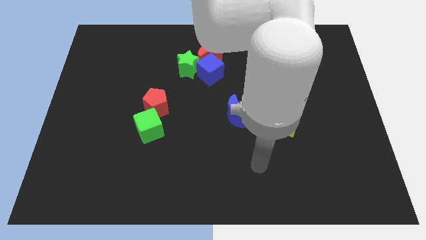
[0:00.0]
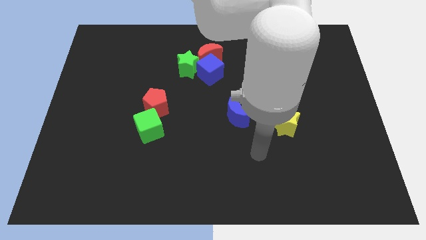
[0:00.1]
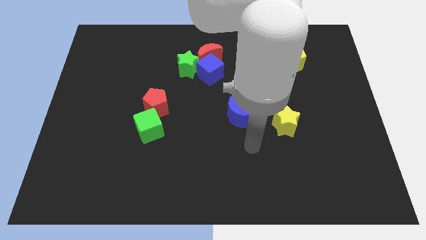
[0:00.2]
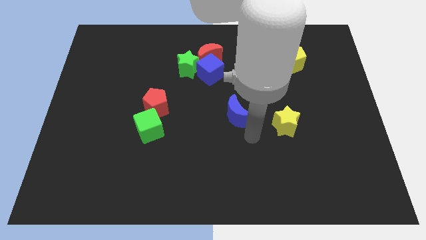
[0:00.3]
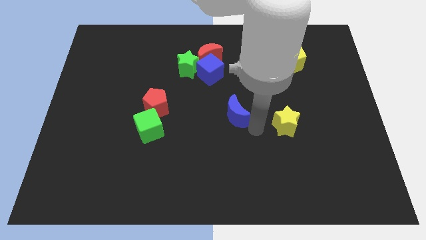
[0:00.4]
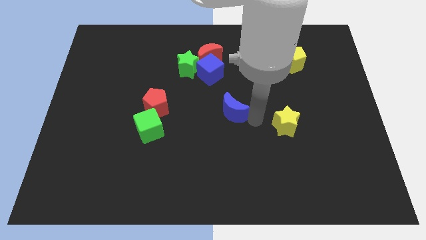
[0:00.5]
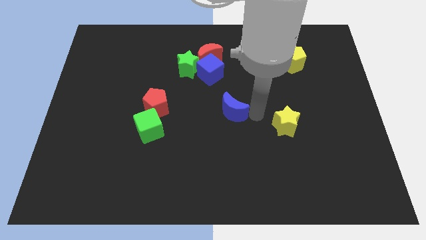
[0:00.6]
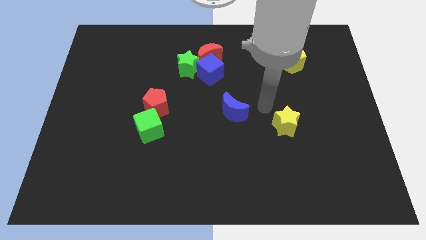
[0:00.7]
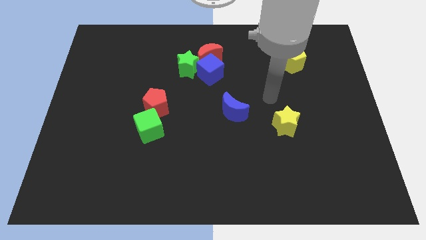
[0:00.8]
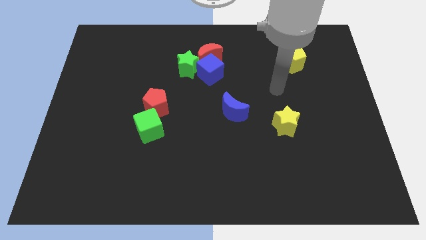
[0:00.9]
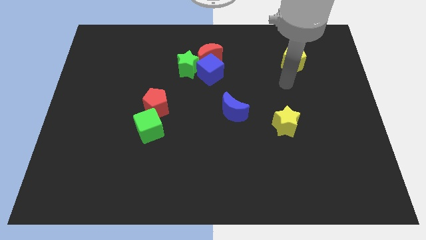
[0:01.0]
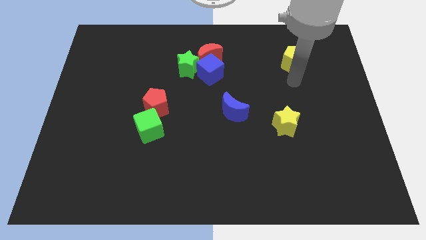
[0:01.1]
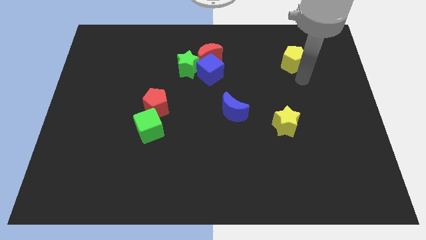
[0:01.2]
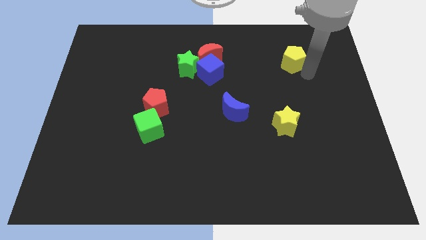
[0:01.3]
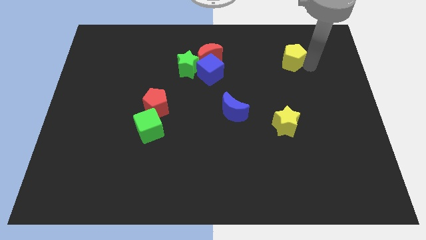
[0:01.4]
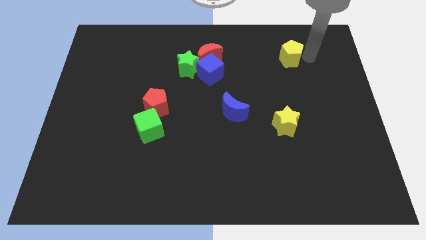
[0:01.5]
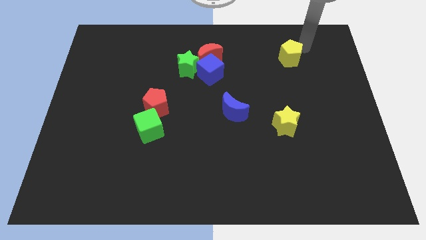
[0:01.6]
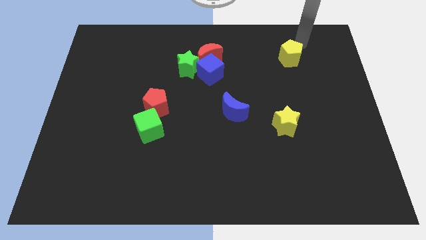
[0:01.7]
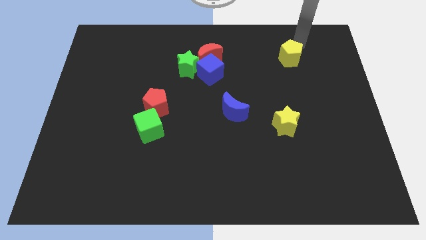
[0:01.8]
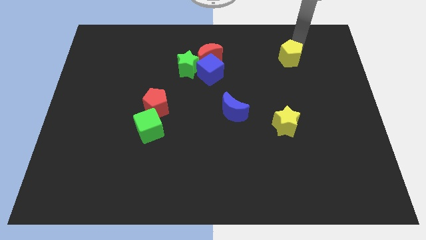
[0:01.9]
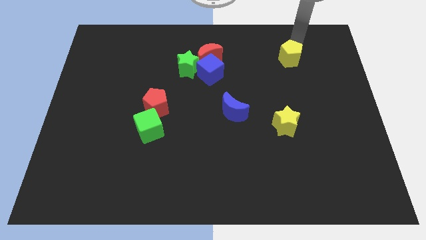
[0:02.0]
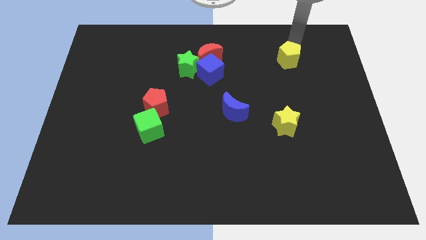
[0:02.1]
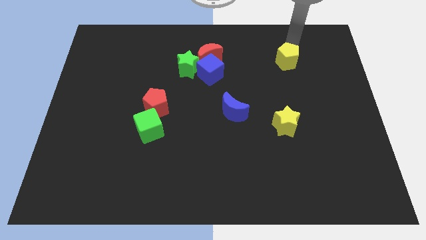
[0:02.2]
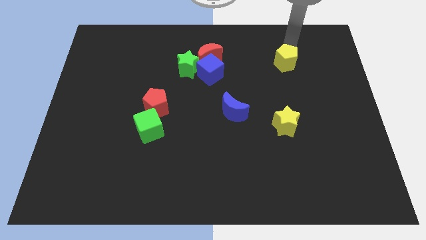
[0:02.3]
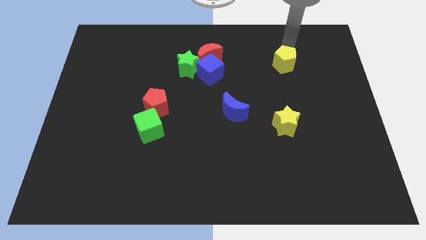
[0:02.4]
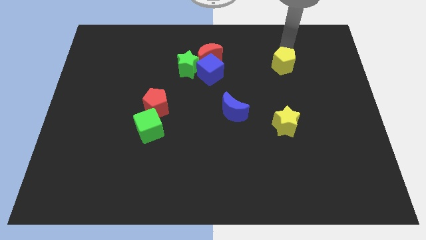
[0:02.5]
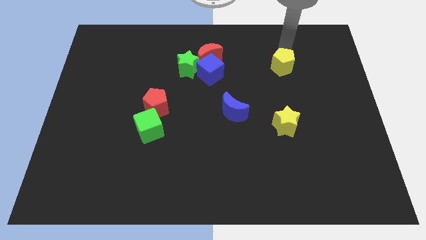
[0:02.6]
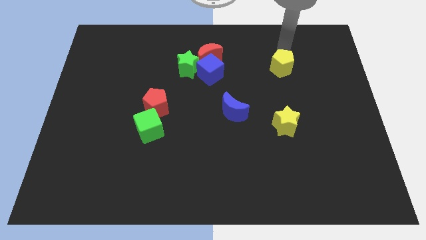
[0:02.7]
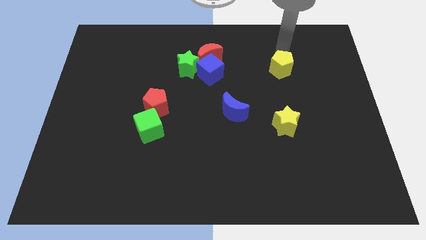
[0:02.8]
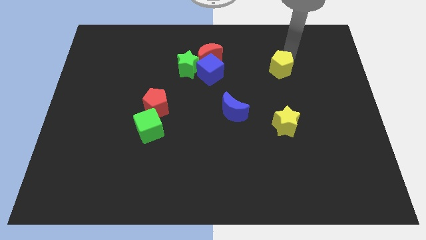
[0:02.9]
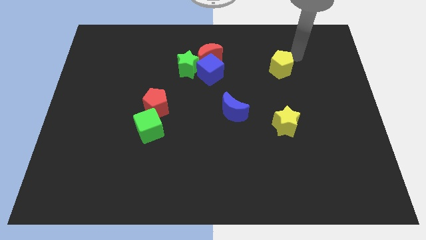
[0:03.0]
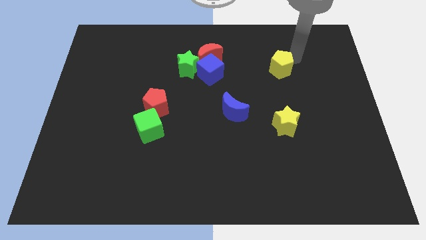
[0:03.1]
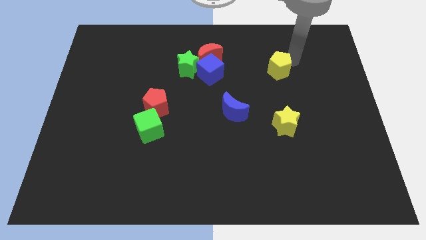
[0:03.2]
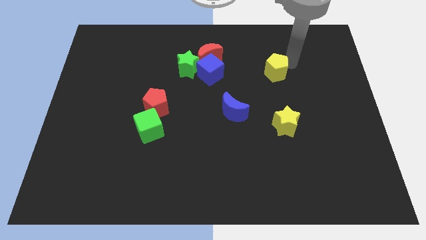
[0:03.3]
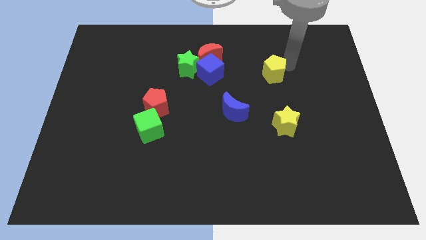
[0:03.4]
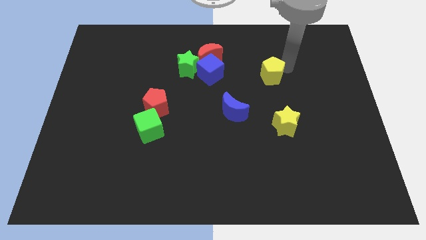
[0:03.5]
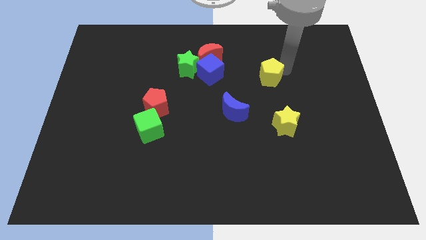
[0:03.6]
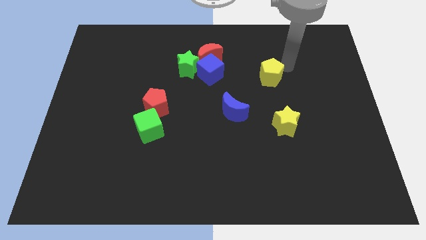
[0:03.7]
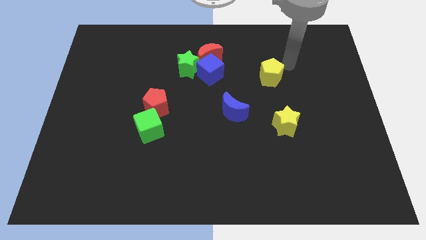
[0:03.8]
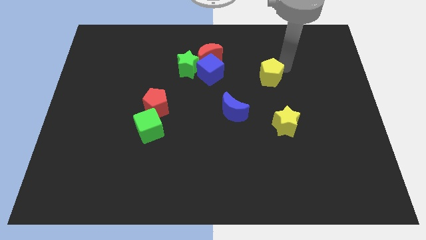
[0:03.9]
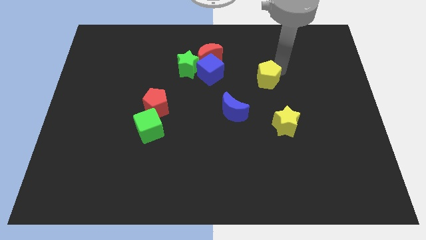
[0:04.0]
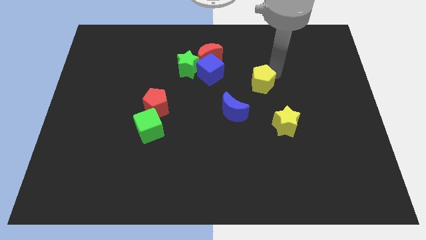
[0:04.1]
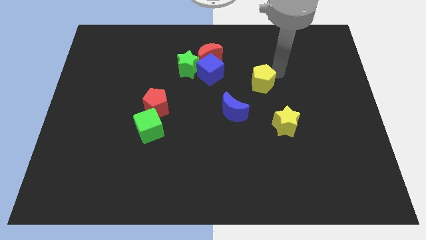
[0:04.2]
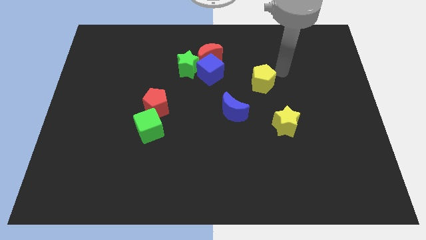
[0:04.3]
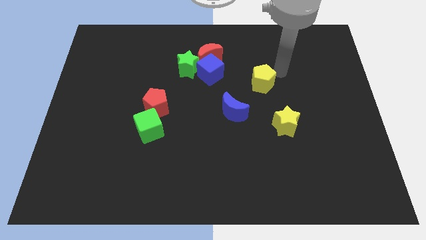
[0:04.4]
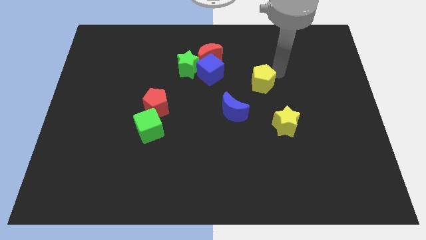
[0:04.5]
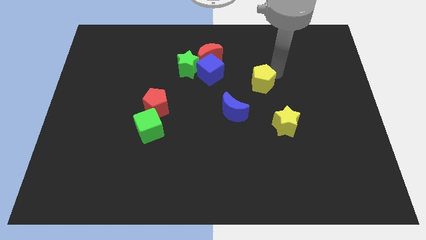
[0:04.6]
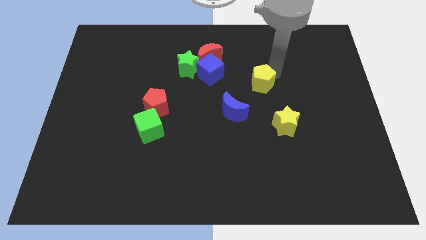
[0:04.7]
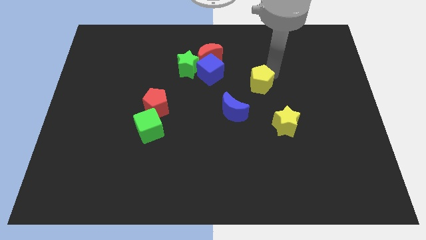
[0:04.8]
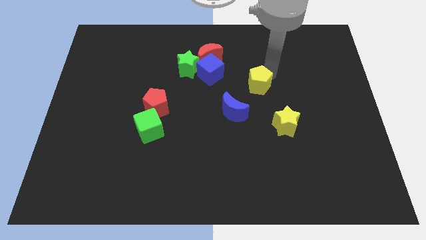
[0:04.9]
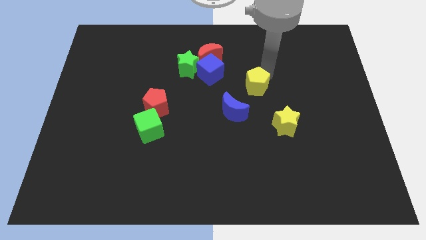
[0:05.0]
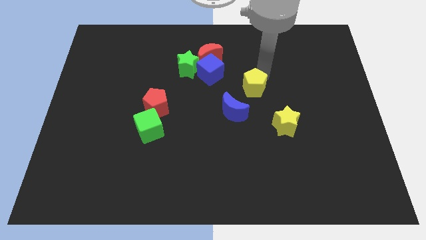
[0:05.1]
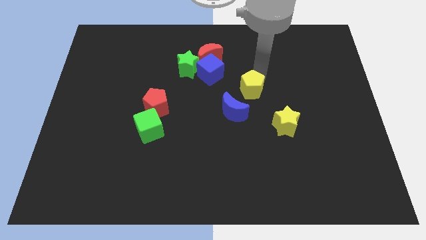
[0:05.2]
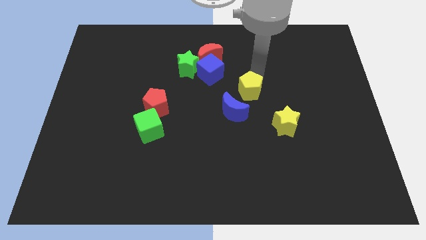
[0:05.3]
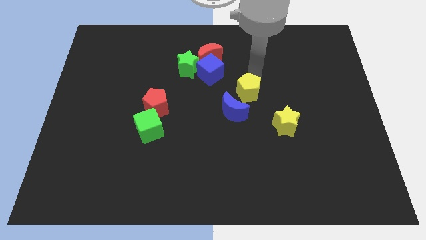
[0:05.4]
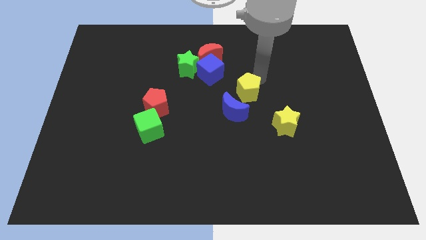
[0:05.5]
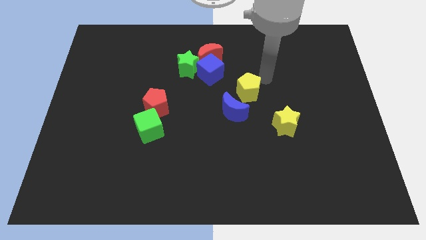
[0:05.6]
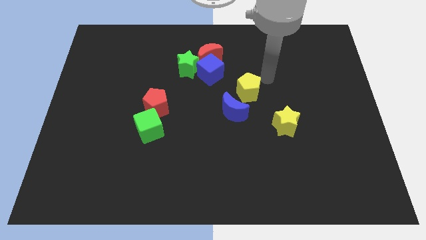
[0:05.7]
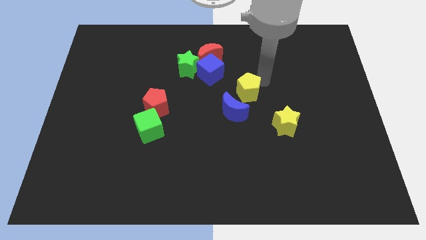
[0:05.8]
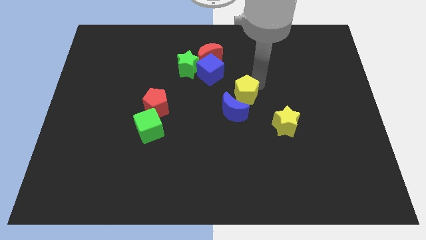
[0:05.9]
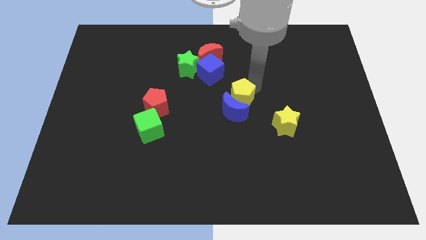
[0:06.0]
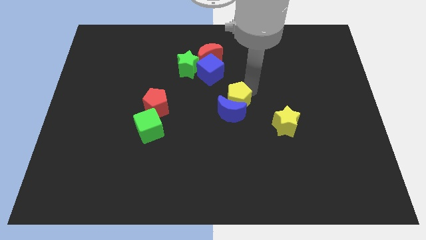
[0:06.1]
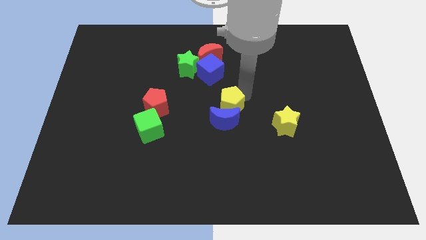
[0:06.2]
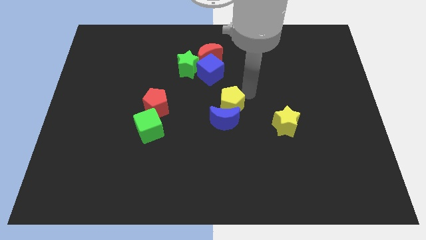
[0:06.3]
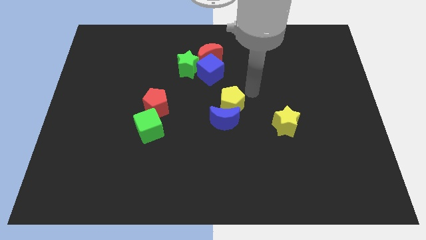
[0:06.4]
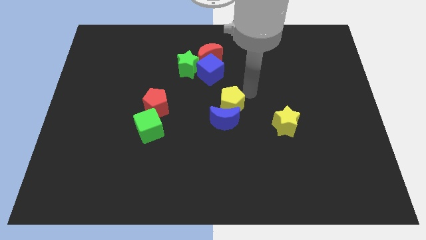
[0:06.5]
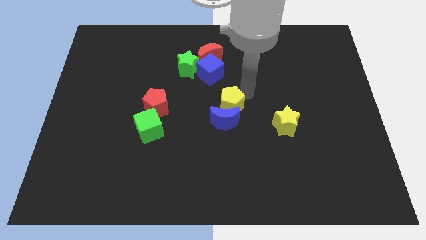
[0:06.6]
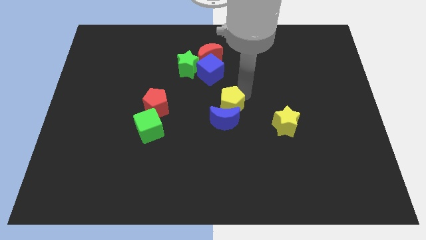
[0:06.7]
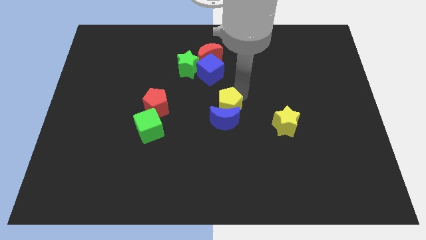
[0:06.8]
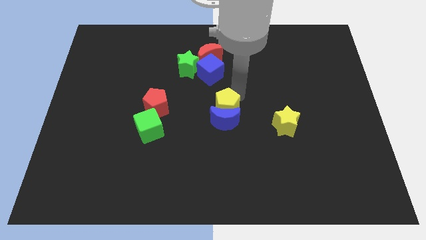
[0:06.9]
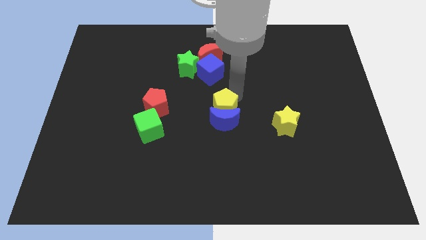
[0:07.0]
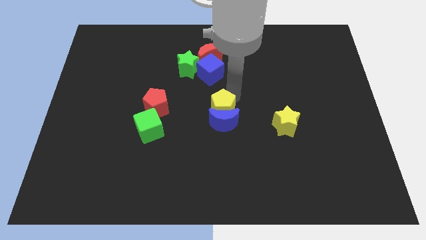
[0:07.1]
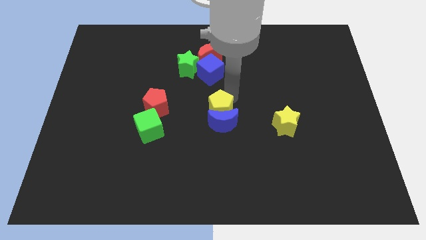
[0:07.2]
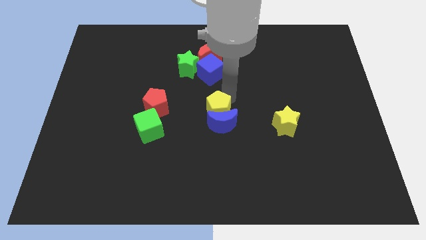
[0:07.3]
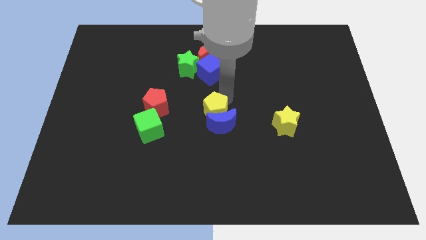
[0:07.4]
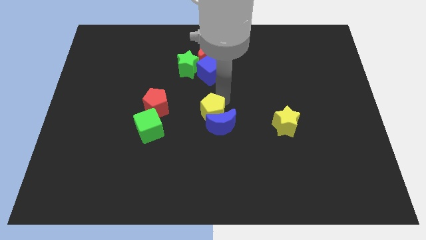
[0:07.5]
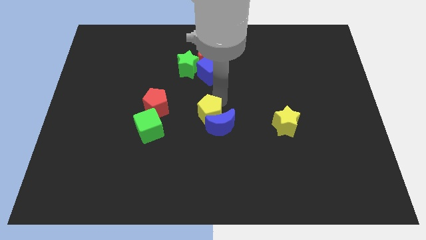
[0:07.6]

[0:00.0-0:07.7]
put the yellow pentagon right of the green cube
